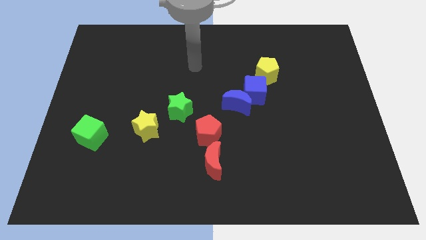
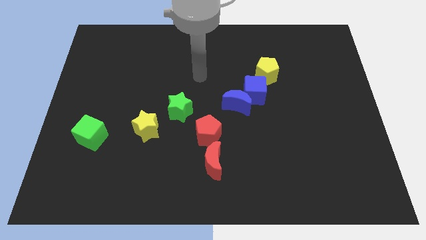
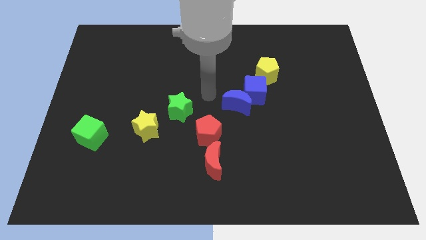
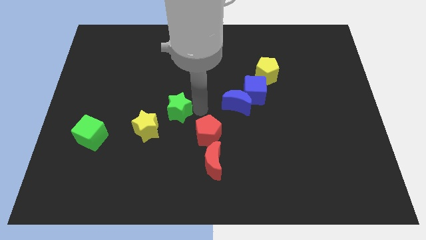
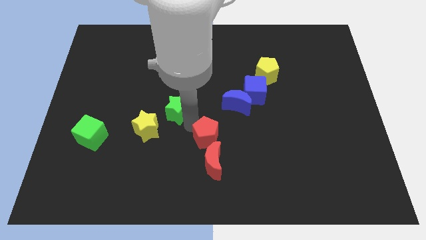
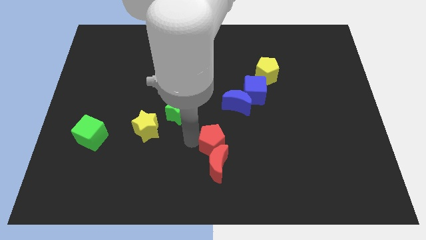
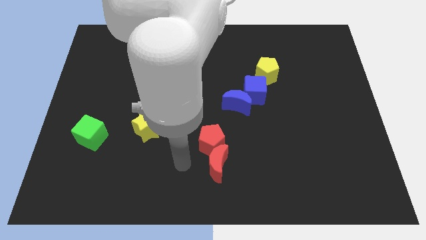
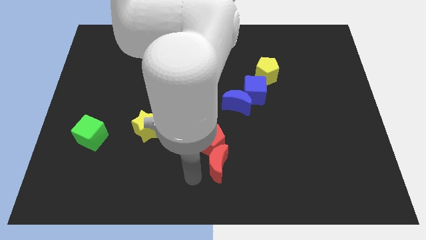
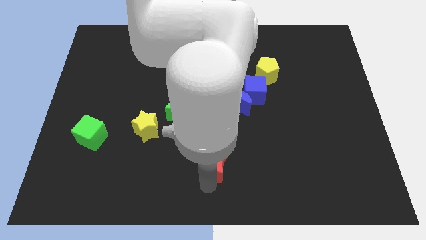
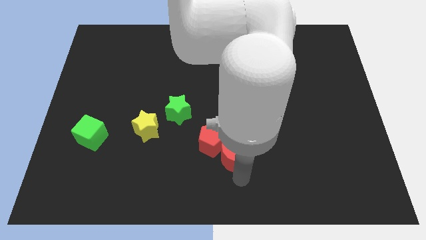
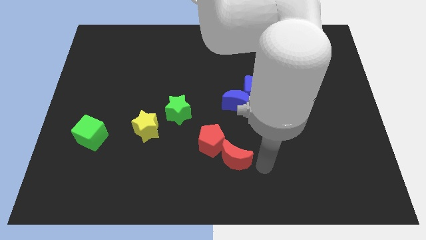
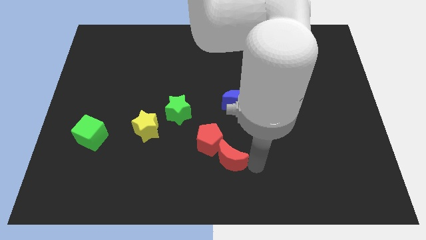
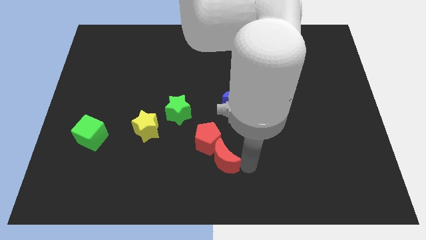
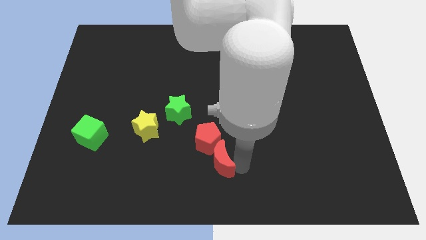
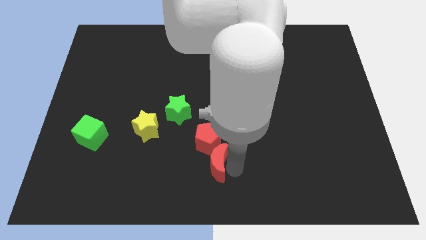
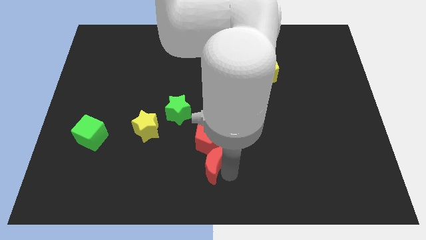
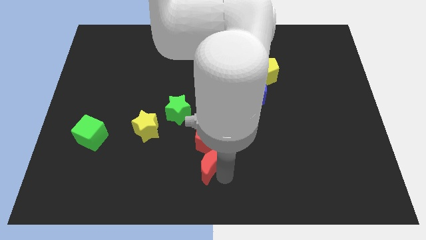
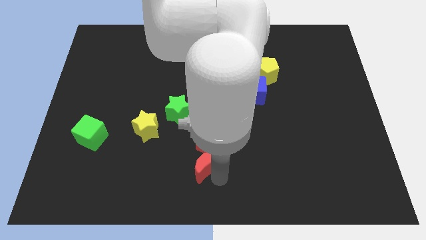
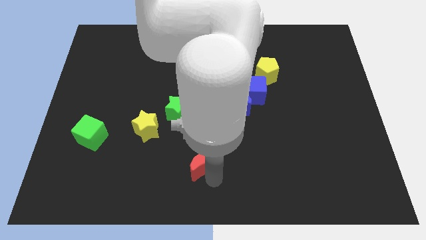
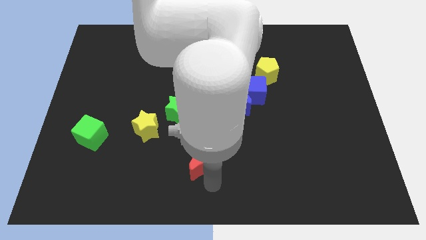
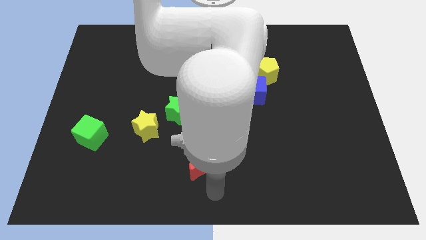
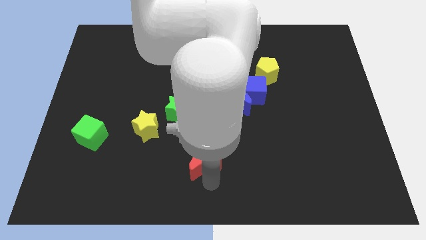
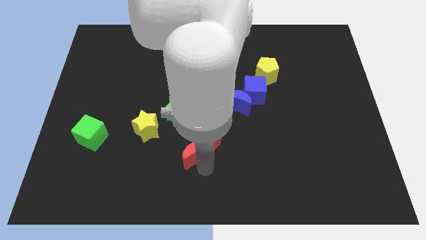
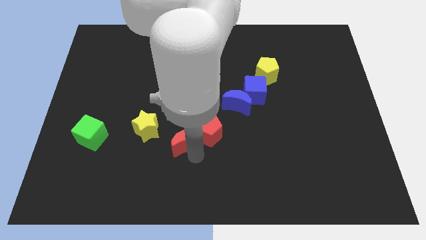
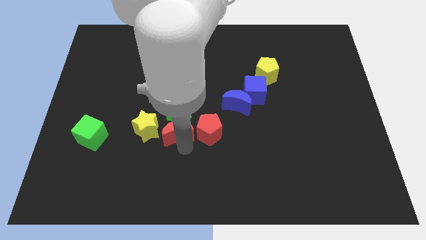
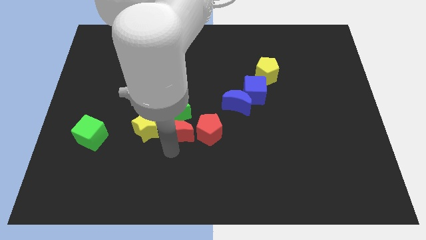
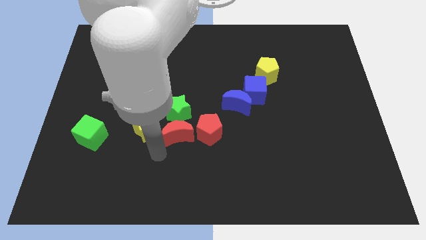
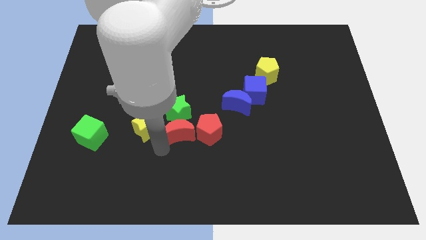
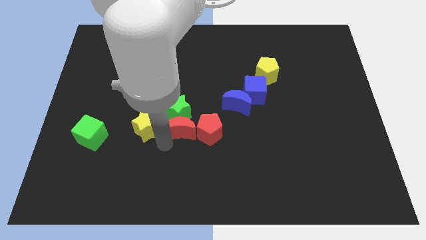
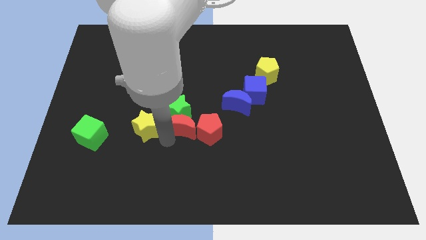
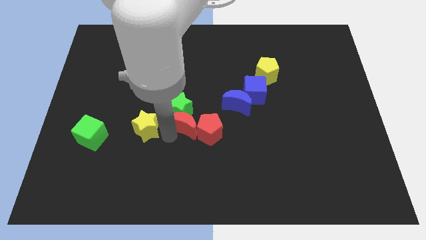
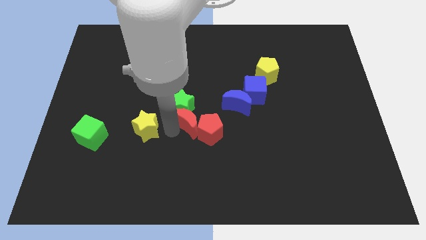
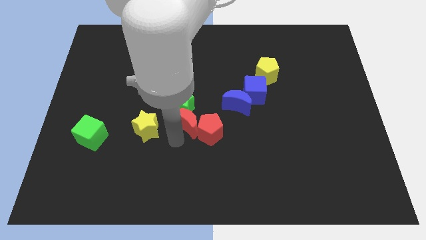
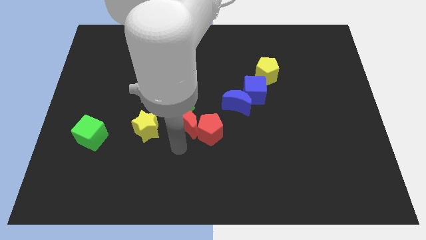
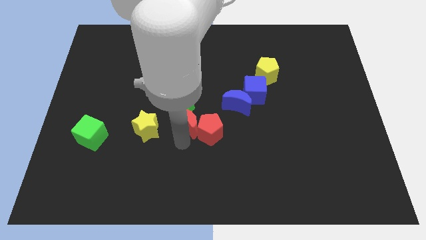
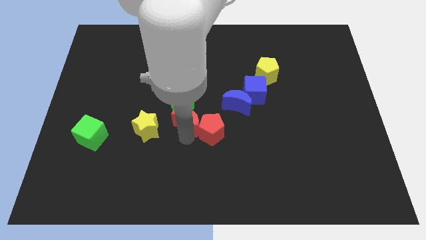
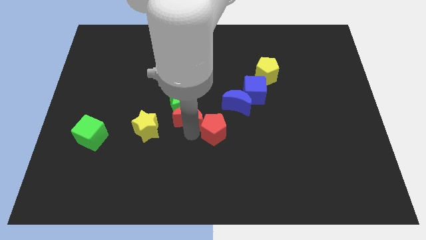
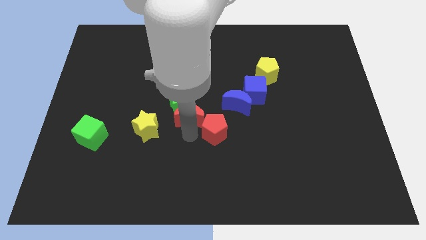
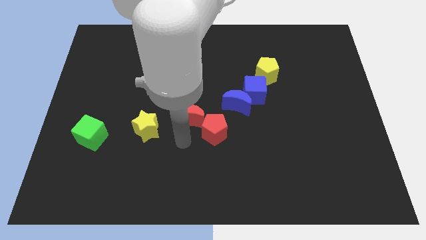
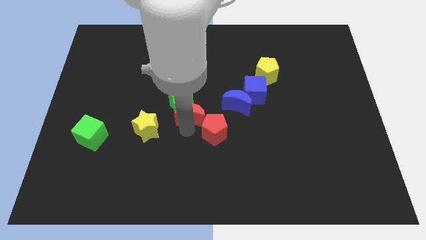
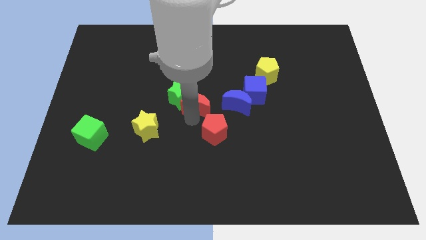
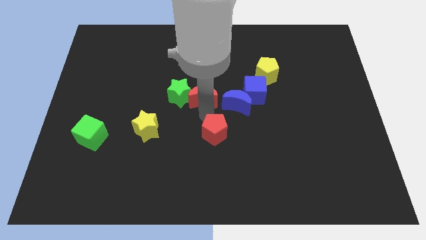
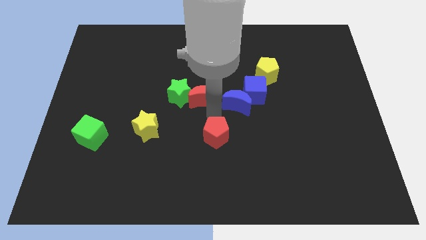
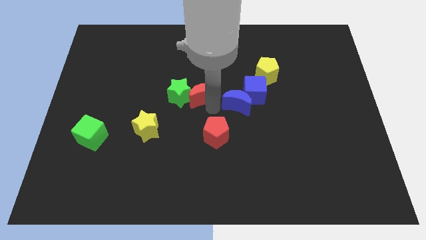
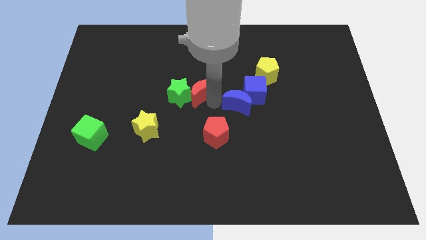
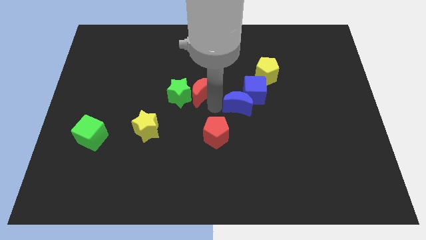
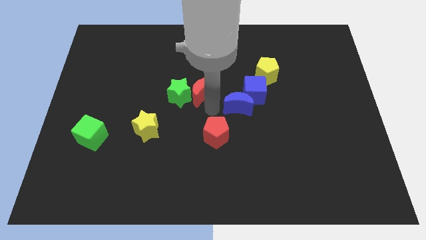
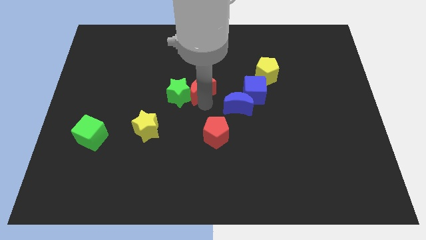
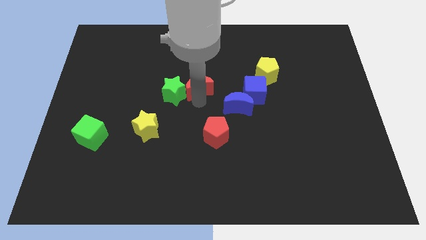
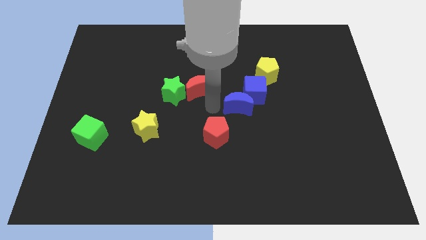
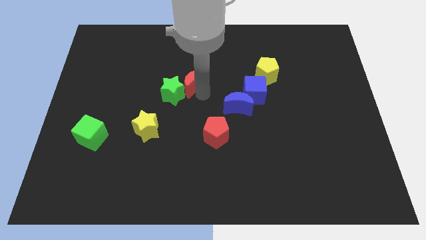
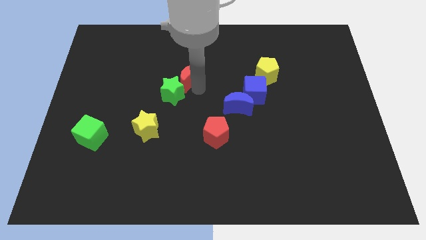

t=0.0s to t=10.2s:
put the red moon to the top of the green star

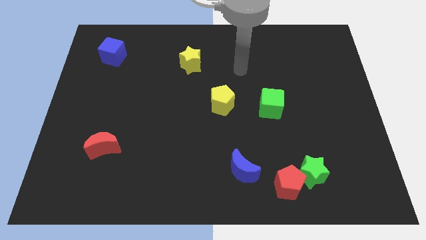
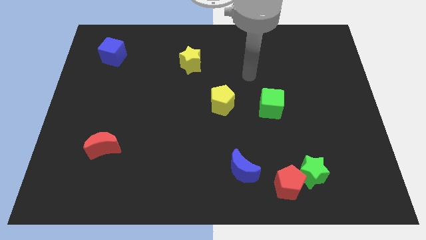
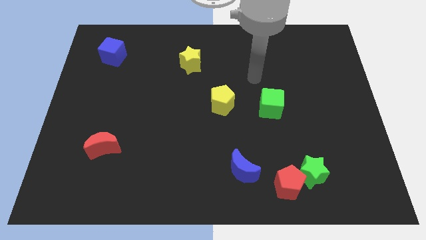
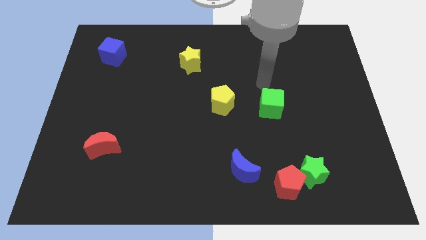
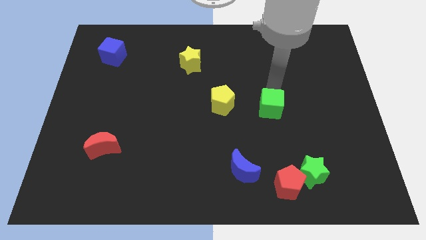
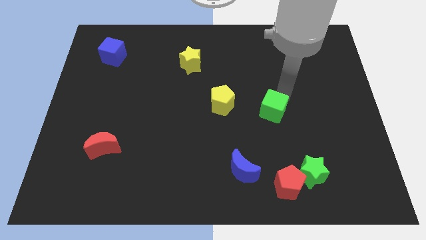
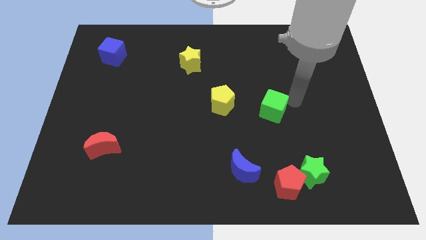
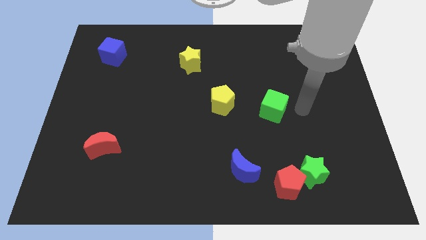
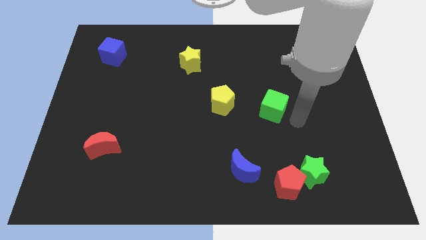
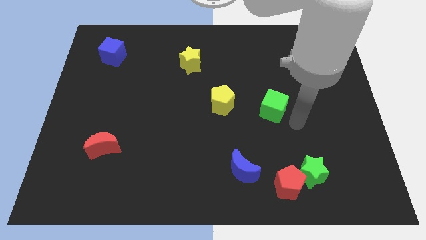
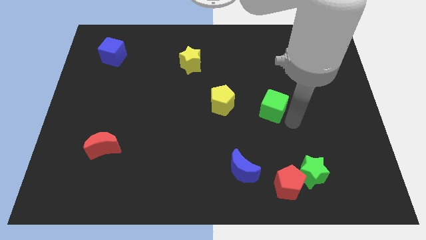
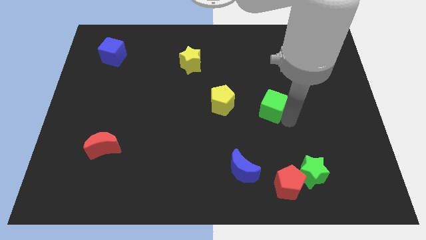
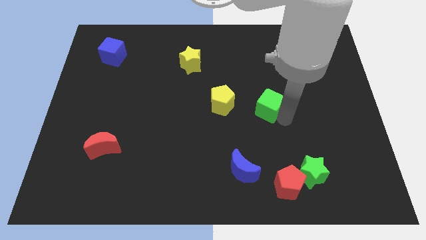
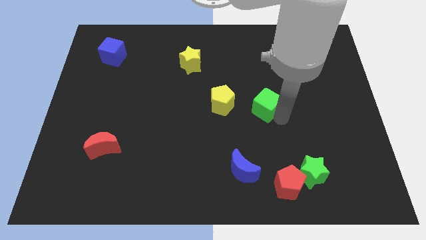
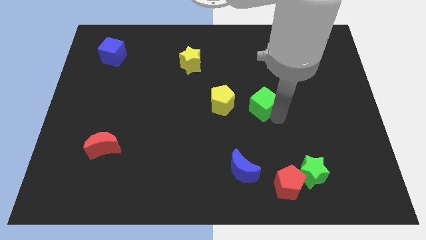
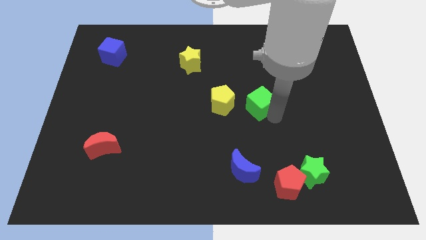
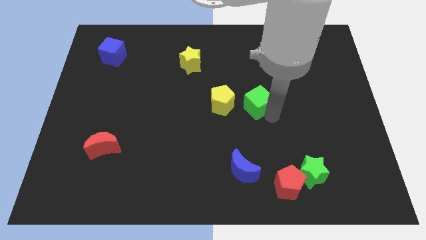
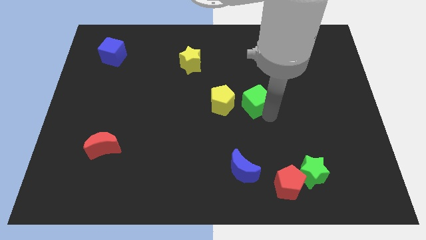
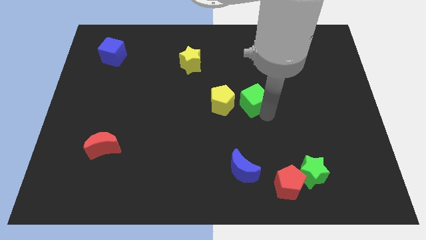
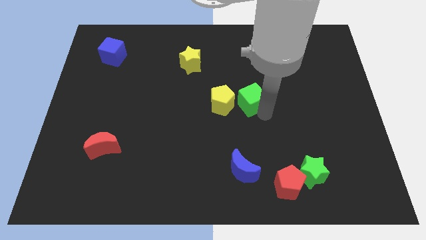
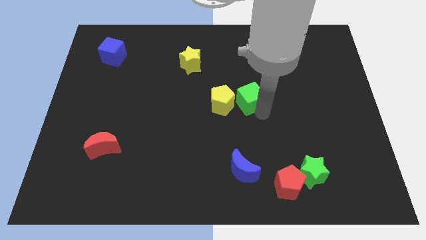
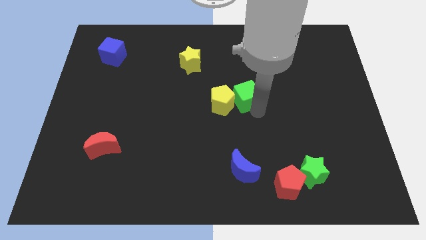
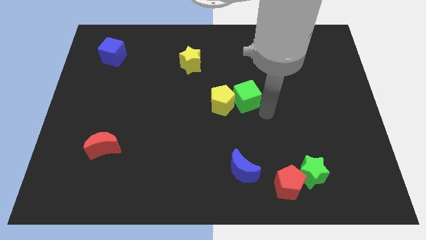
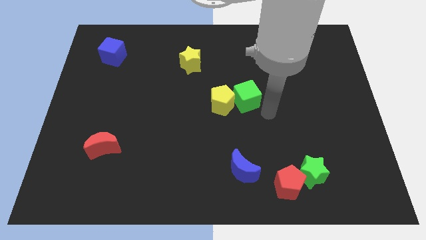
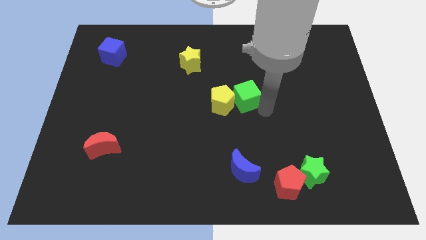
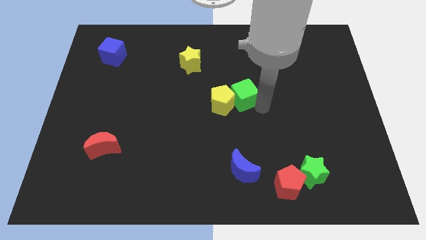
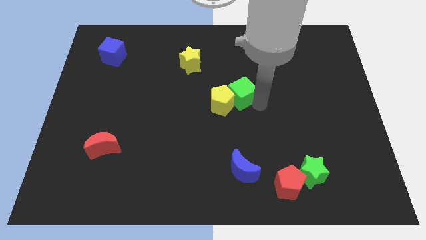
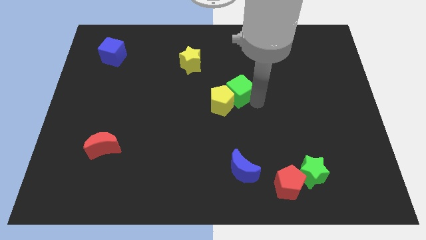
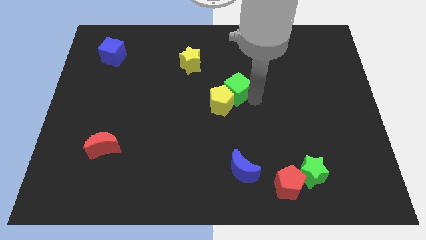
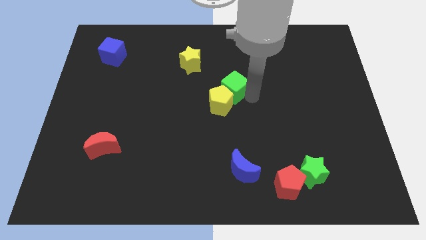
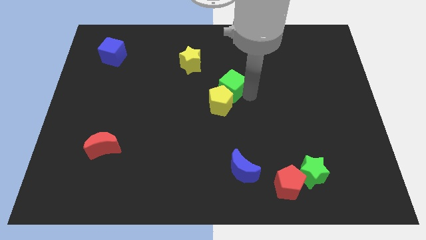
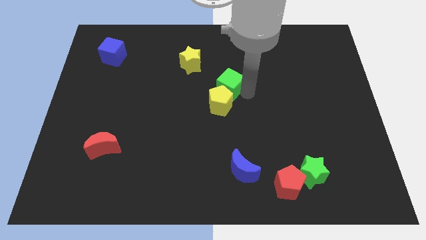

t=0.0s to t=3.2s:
slide the green cube diagonally down and to the right of the yellow star

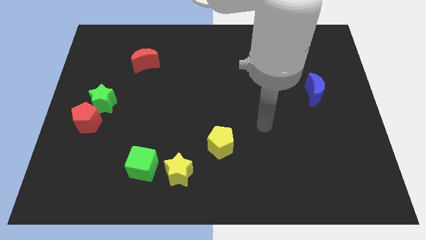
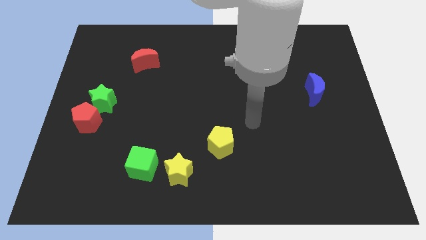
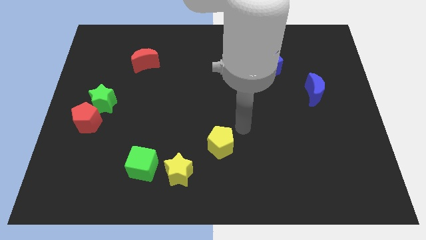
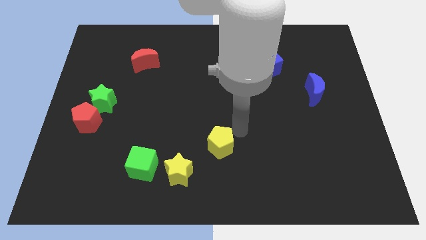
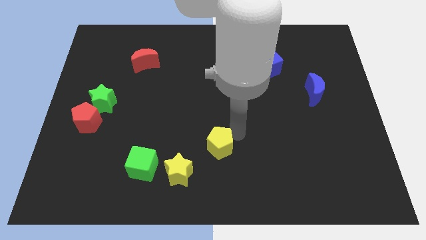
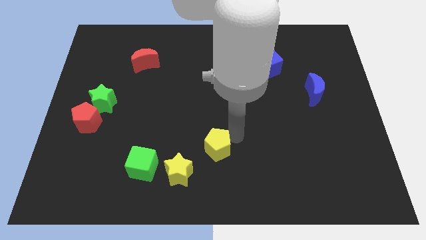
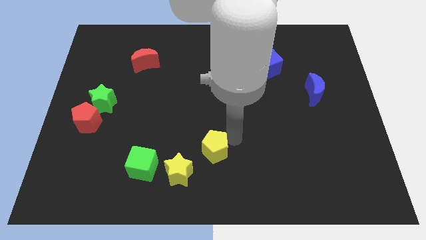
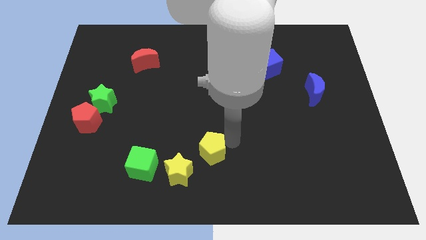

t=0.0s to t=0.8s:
slide the yellow pentagon right of the green cube
